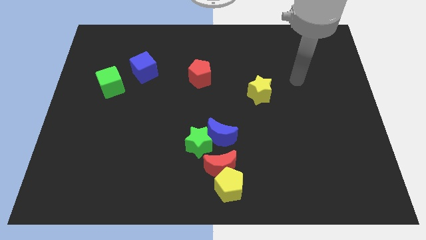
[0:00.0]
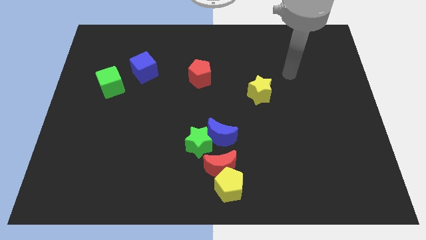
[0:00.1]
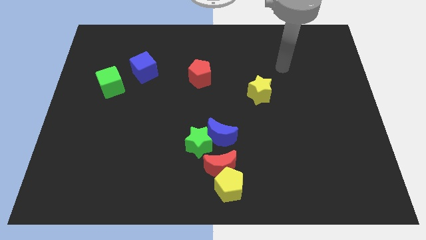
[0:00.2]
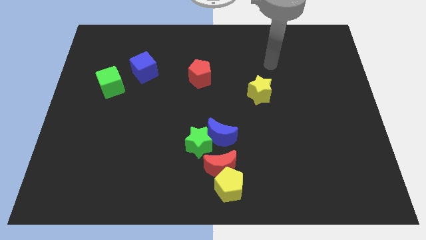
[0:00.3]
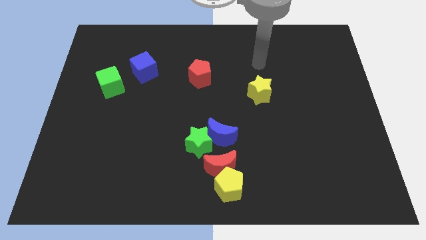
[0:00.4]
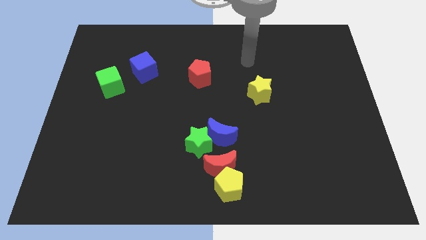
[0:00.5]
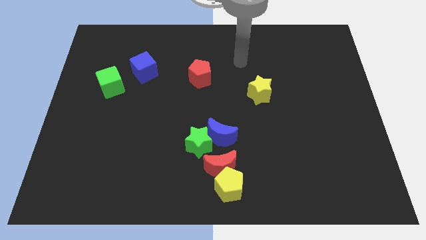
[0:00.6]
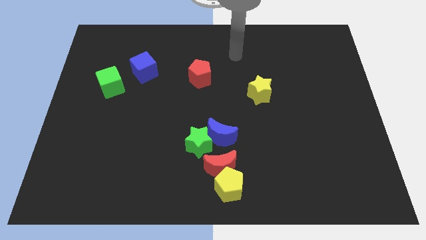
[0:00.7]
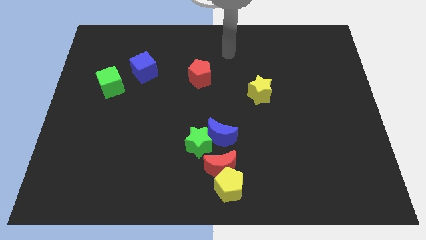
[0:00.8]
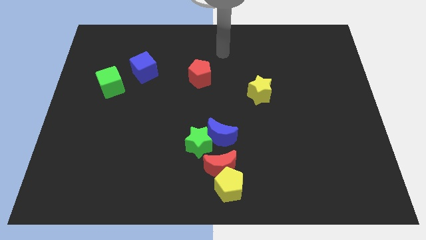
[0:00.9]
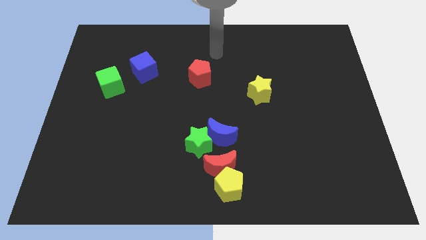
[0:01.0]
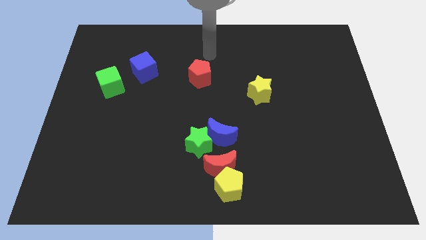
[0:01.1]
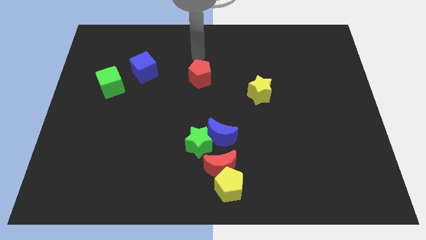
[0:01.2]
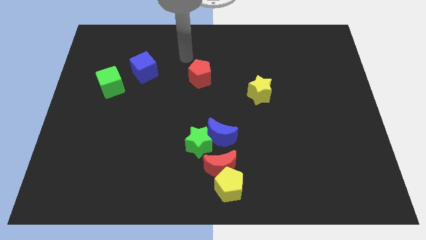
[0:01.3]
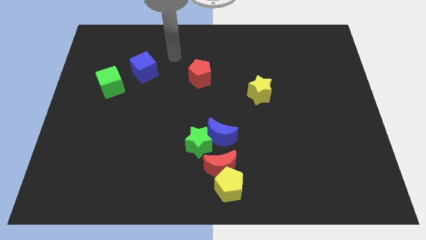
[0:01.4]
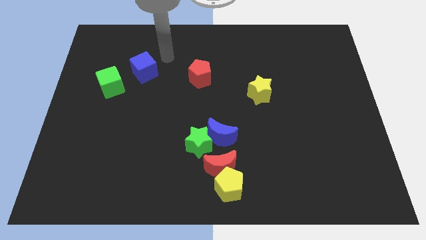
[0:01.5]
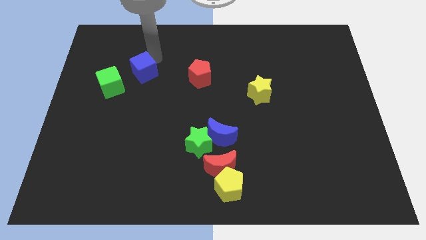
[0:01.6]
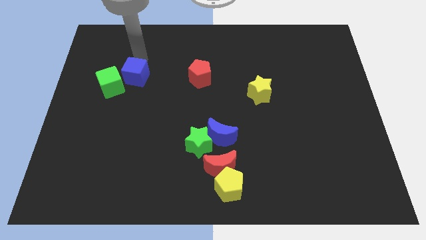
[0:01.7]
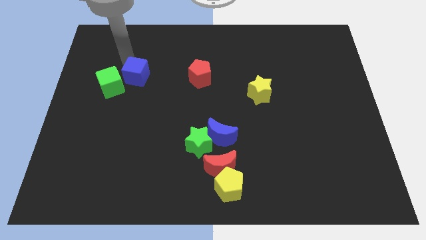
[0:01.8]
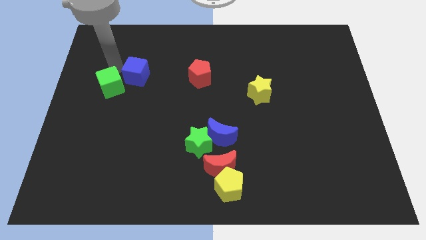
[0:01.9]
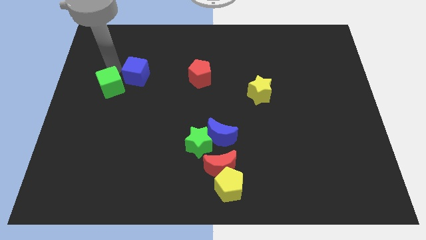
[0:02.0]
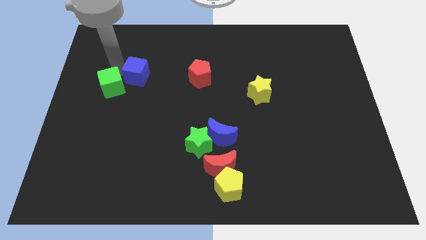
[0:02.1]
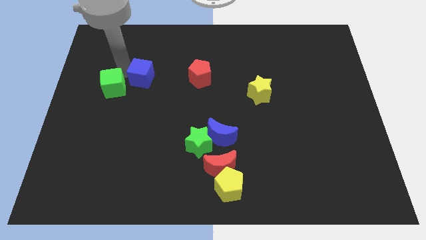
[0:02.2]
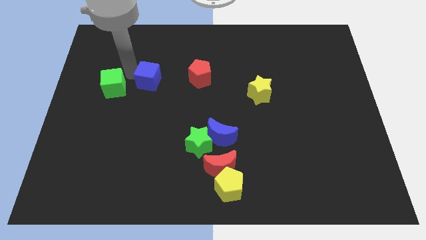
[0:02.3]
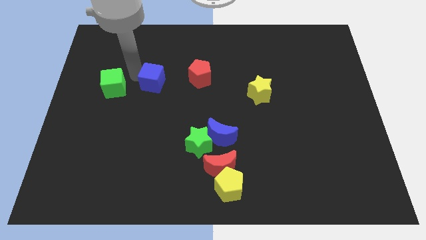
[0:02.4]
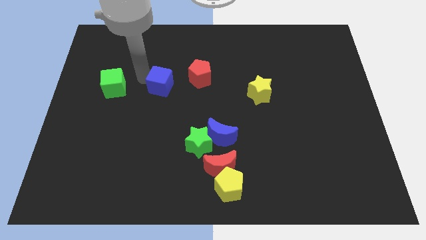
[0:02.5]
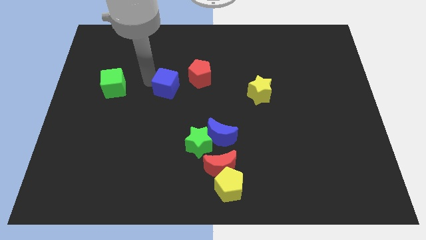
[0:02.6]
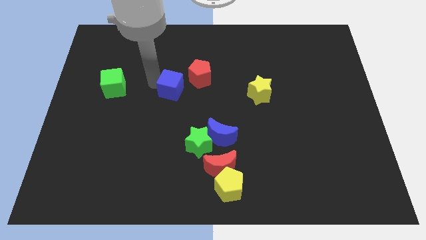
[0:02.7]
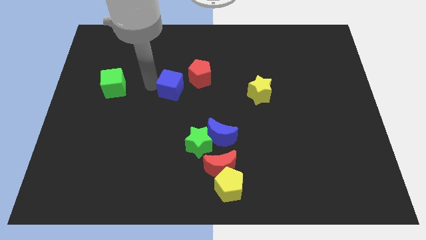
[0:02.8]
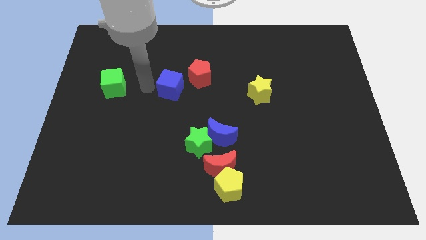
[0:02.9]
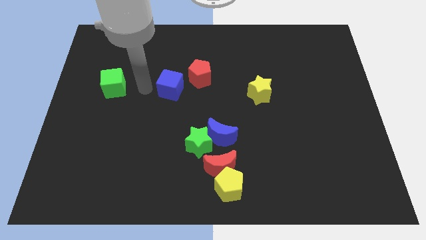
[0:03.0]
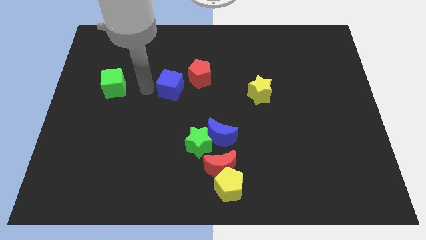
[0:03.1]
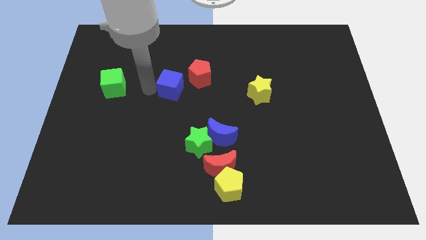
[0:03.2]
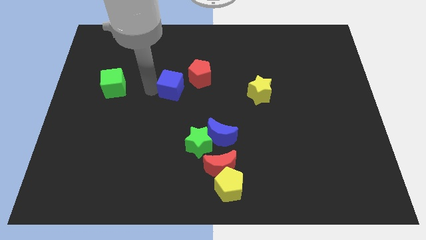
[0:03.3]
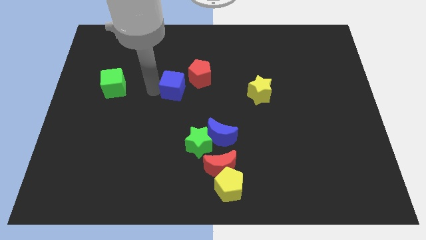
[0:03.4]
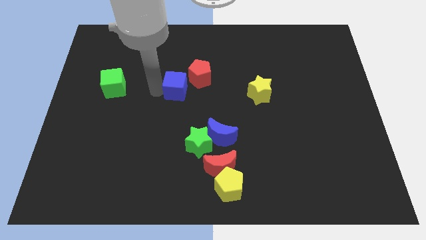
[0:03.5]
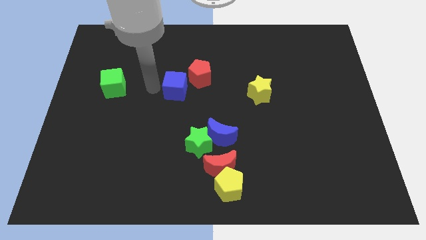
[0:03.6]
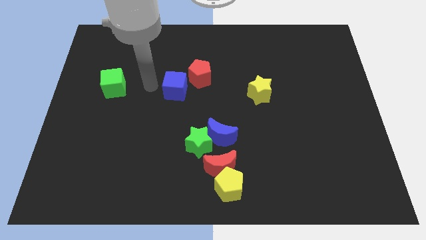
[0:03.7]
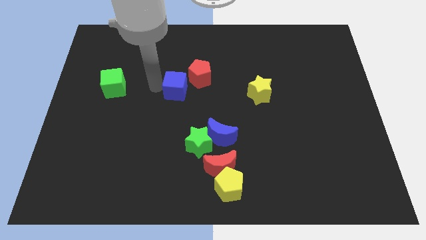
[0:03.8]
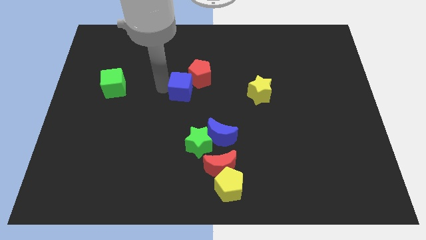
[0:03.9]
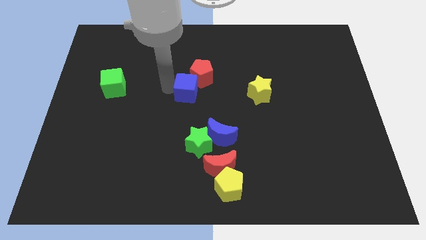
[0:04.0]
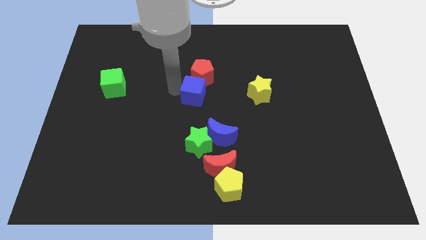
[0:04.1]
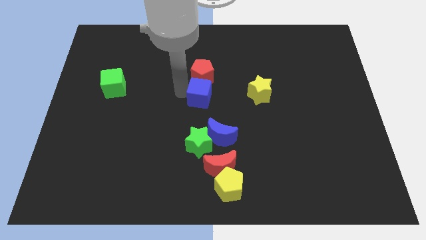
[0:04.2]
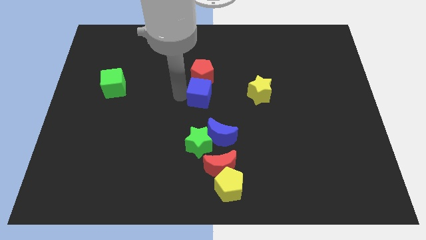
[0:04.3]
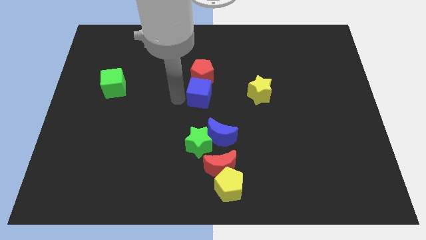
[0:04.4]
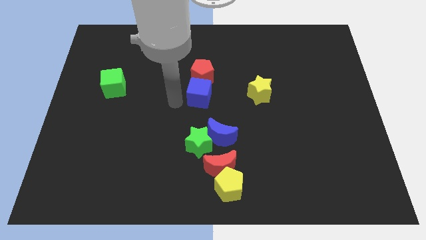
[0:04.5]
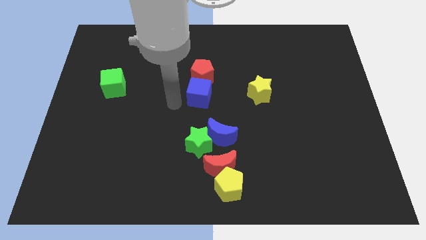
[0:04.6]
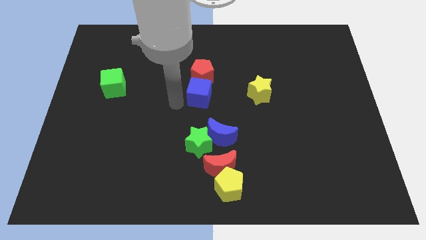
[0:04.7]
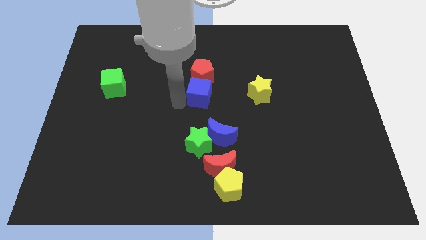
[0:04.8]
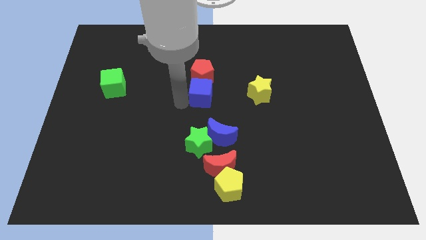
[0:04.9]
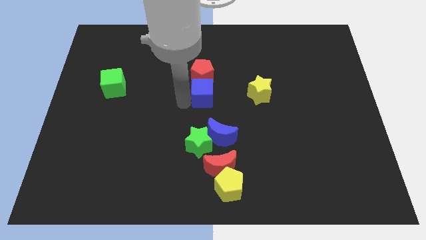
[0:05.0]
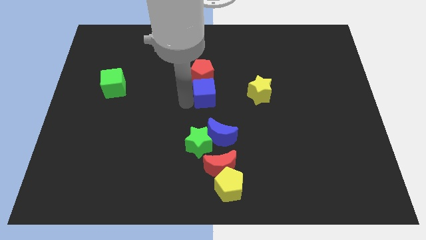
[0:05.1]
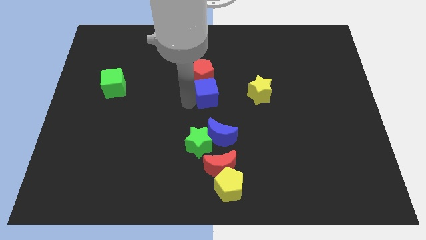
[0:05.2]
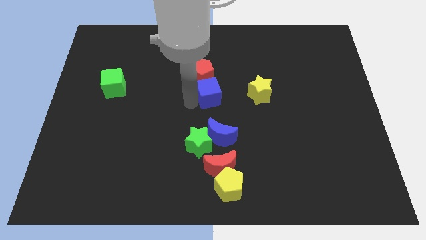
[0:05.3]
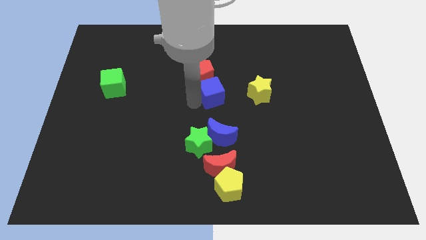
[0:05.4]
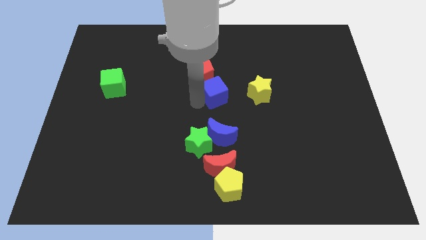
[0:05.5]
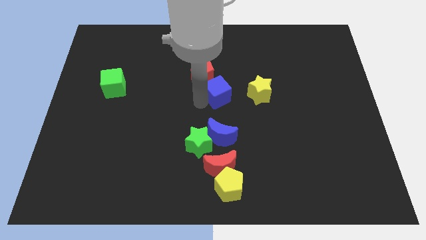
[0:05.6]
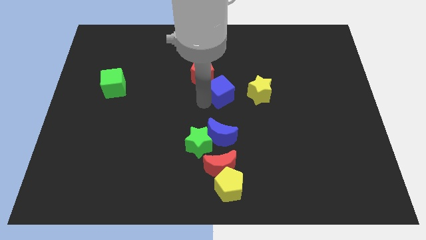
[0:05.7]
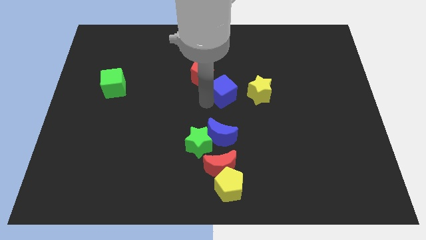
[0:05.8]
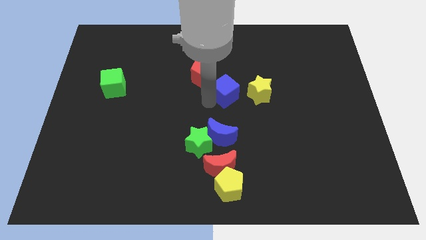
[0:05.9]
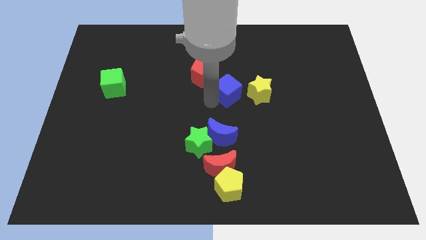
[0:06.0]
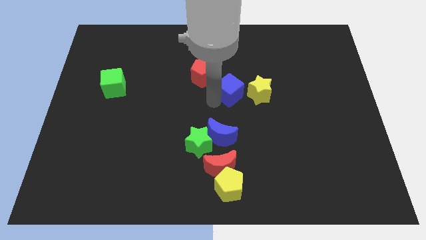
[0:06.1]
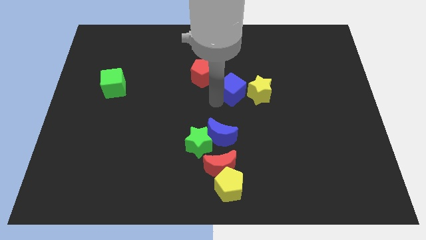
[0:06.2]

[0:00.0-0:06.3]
move the blue cube right

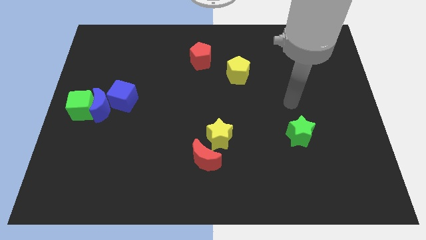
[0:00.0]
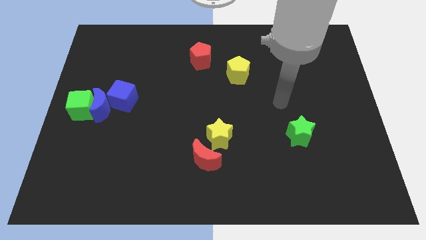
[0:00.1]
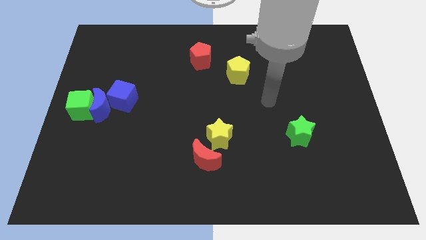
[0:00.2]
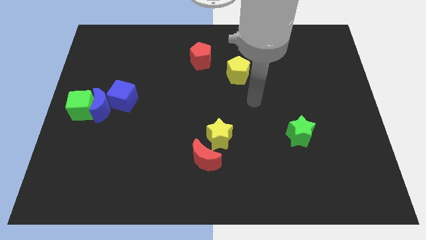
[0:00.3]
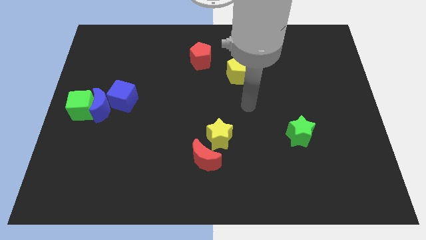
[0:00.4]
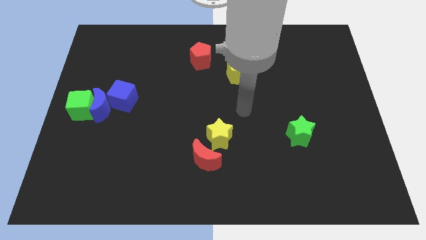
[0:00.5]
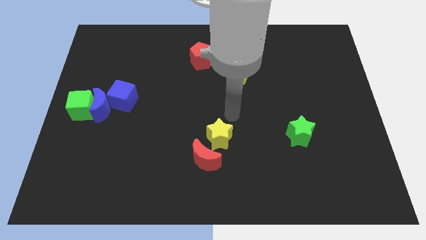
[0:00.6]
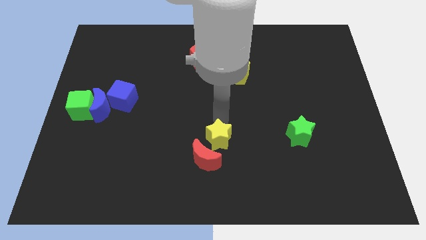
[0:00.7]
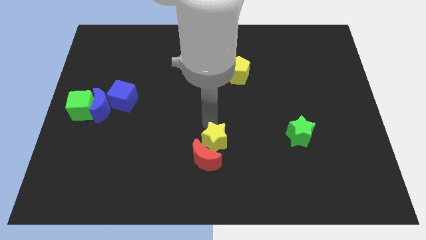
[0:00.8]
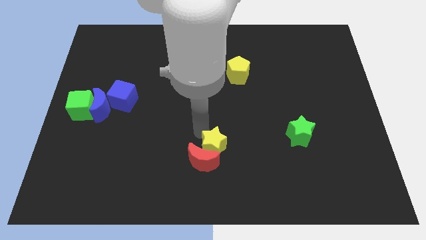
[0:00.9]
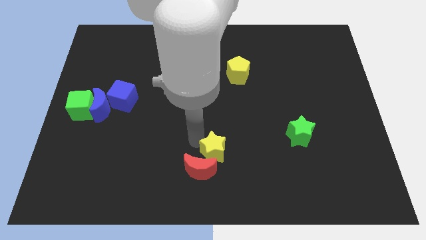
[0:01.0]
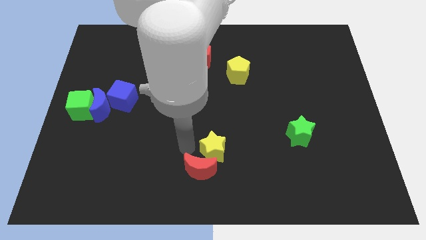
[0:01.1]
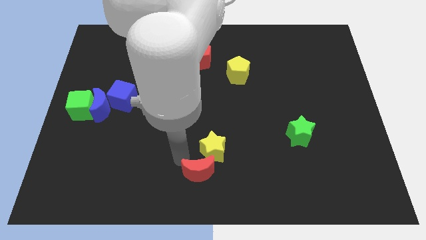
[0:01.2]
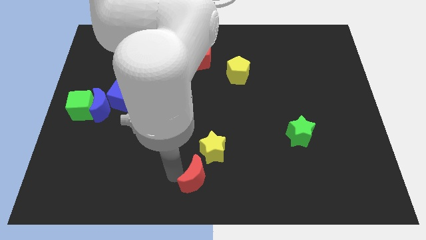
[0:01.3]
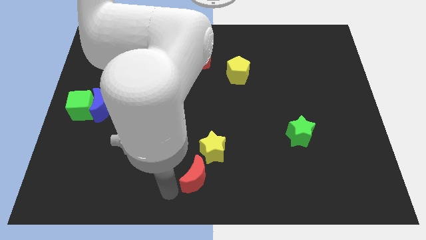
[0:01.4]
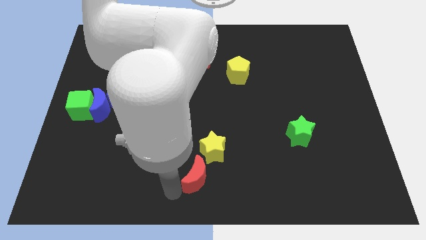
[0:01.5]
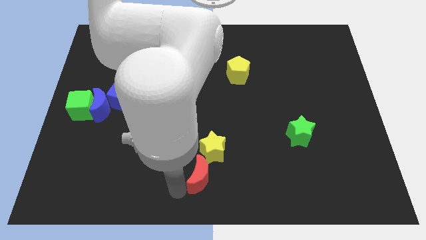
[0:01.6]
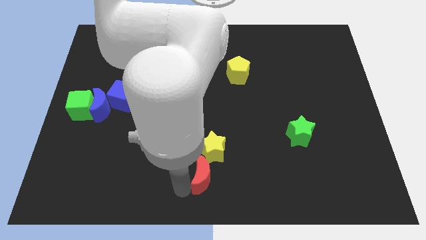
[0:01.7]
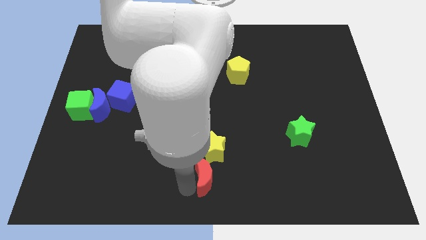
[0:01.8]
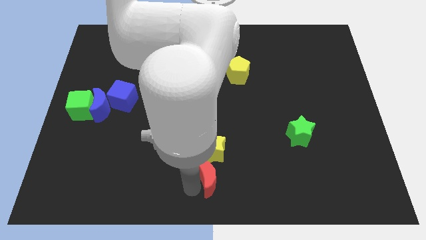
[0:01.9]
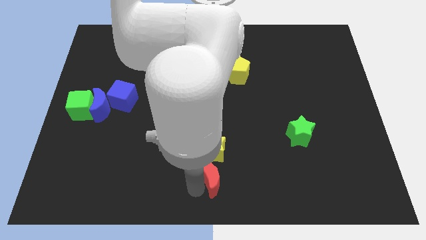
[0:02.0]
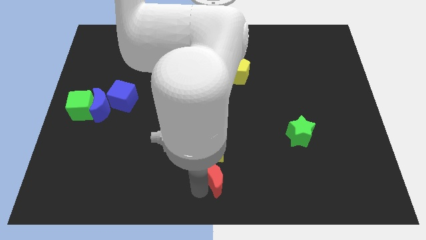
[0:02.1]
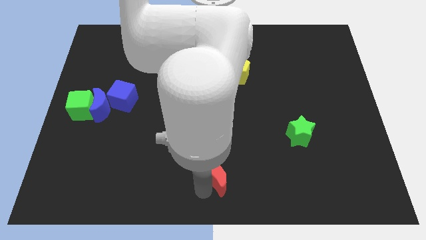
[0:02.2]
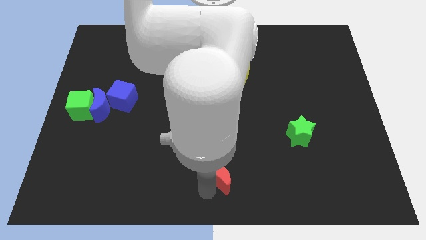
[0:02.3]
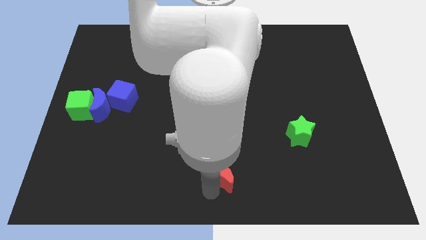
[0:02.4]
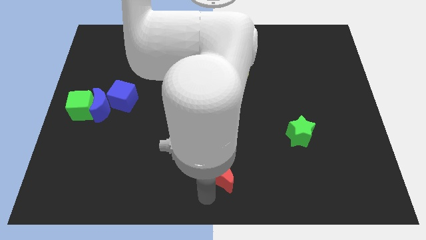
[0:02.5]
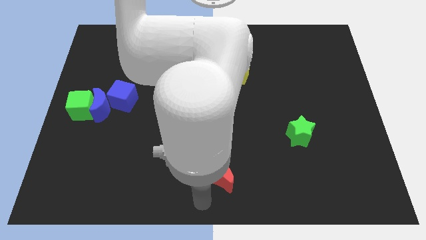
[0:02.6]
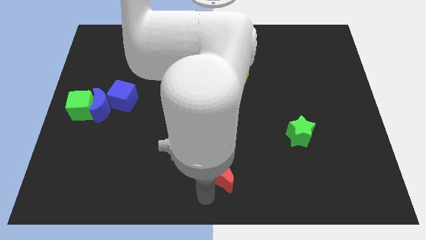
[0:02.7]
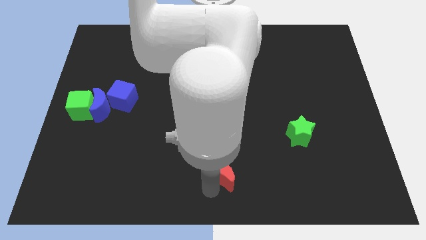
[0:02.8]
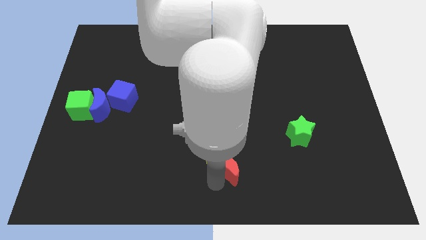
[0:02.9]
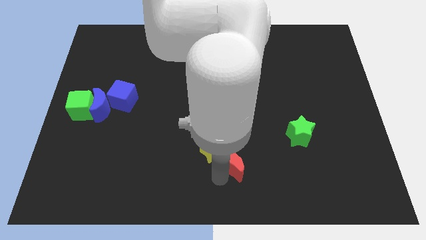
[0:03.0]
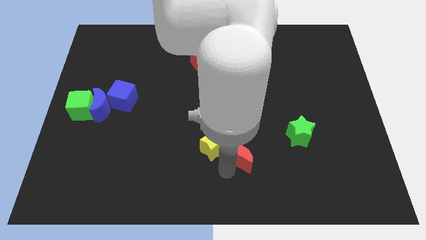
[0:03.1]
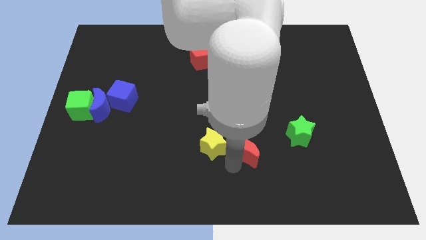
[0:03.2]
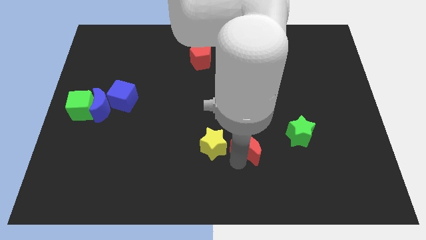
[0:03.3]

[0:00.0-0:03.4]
push the red moon slightly upwards and right diagonally
